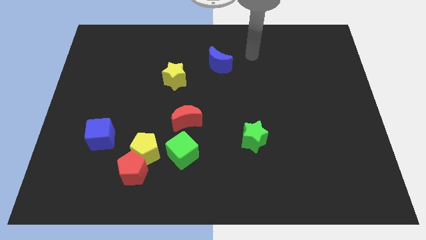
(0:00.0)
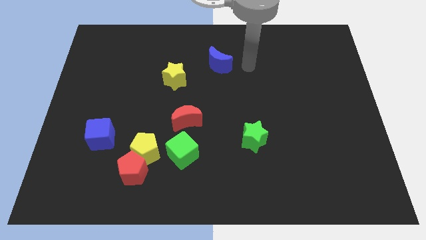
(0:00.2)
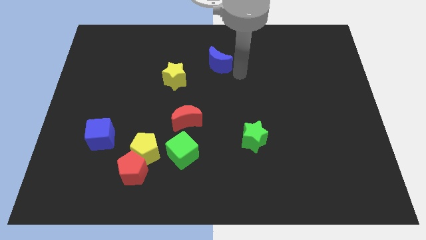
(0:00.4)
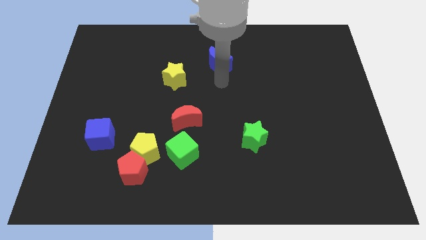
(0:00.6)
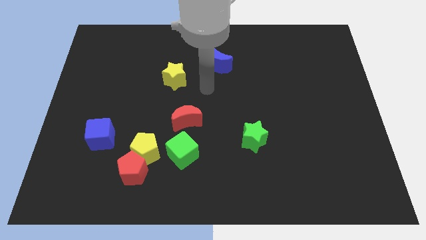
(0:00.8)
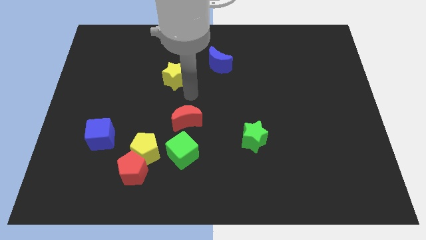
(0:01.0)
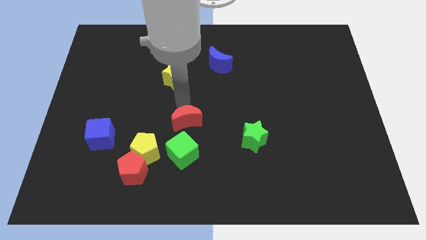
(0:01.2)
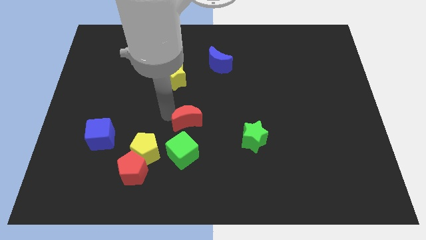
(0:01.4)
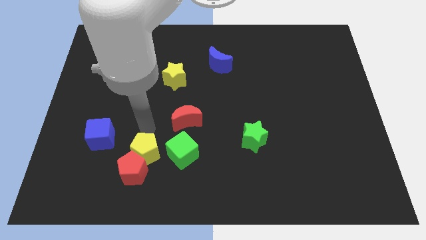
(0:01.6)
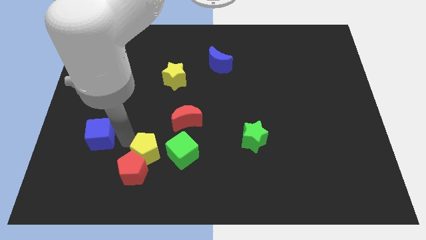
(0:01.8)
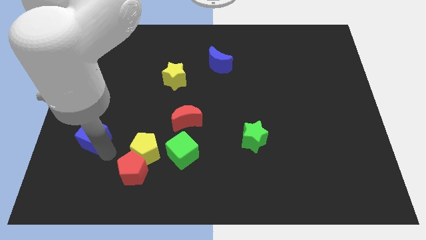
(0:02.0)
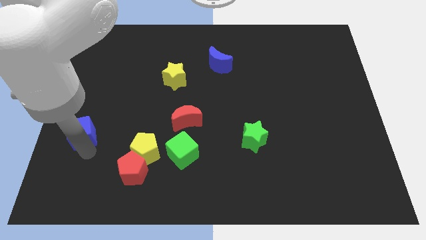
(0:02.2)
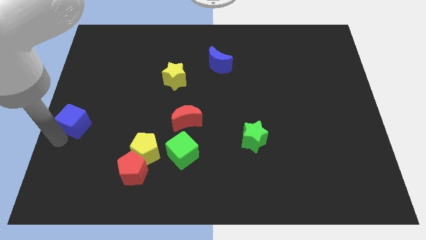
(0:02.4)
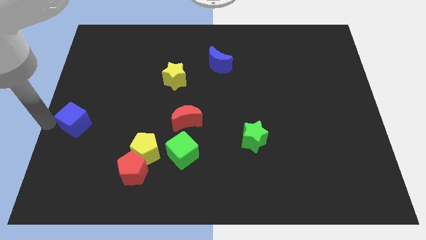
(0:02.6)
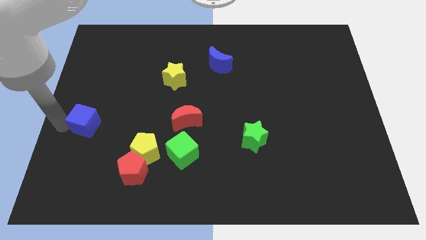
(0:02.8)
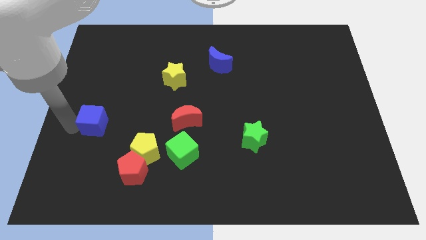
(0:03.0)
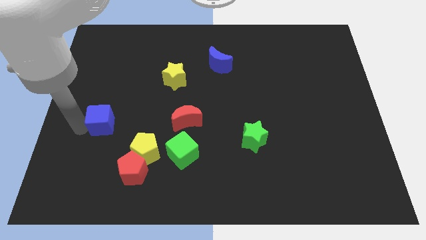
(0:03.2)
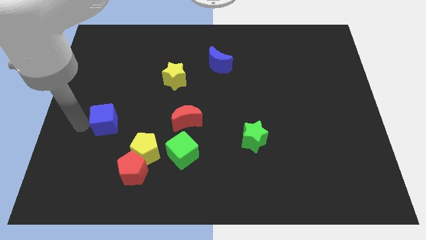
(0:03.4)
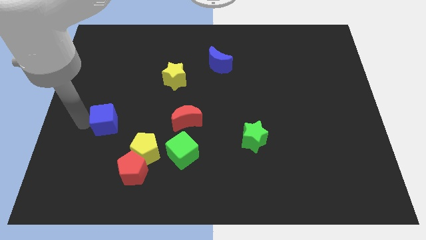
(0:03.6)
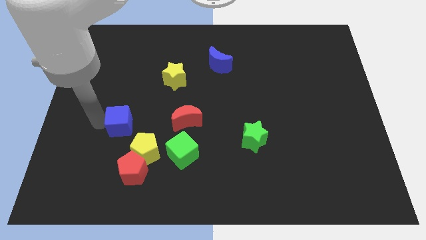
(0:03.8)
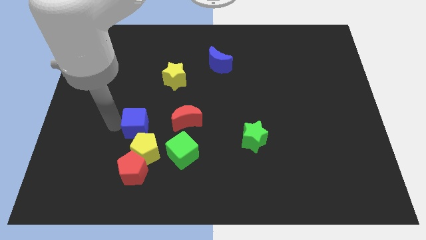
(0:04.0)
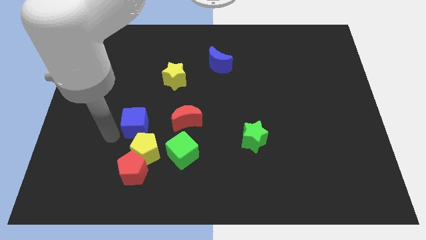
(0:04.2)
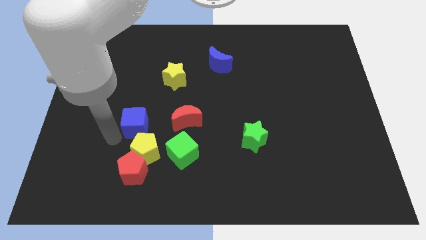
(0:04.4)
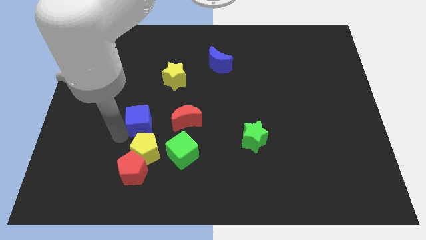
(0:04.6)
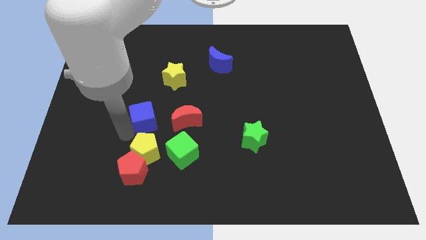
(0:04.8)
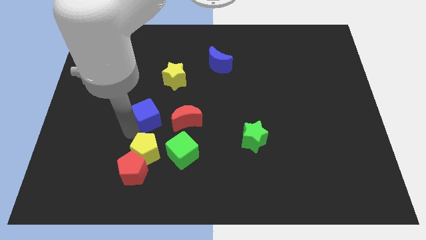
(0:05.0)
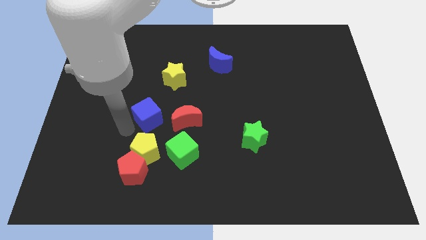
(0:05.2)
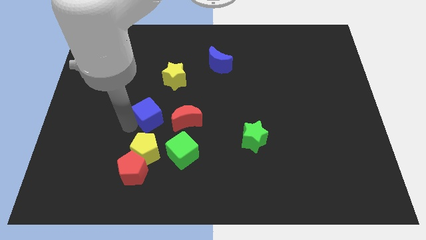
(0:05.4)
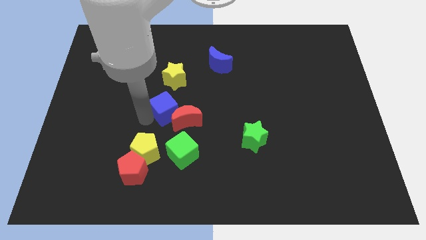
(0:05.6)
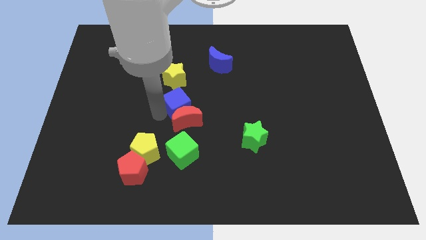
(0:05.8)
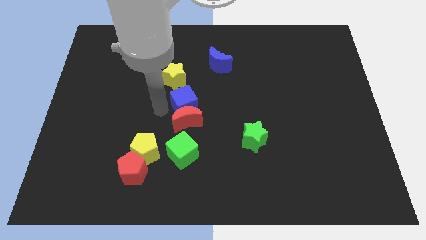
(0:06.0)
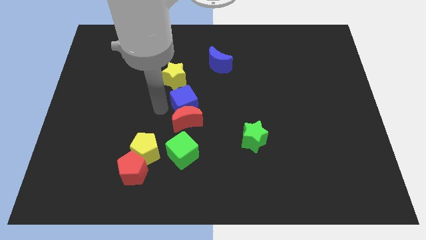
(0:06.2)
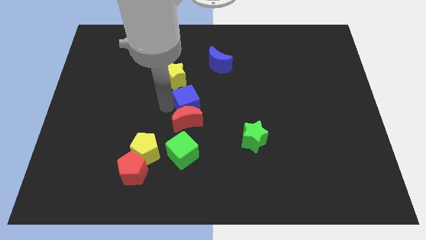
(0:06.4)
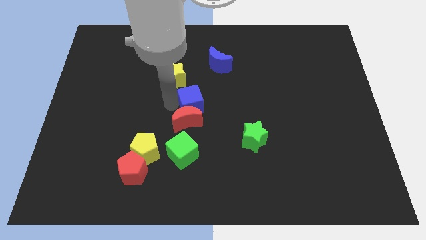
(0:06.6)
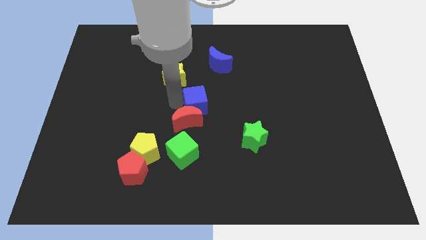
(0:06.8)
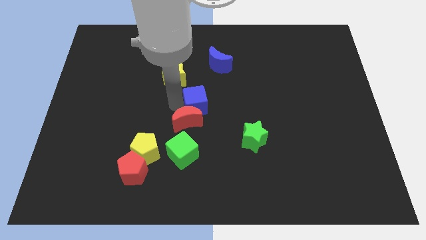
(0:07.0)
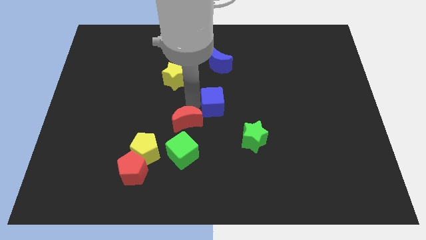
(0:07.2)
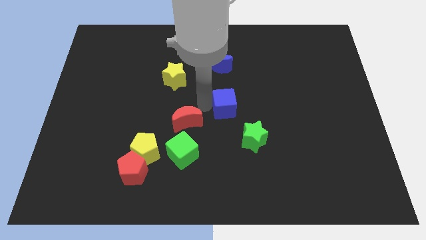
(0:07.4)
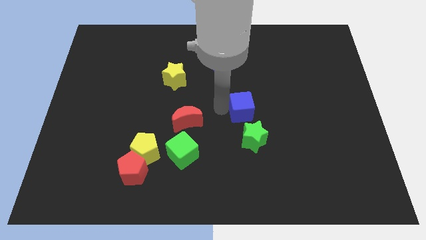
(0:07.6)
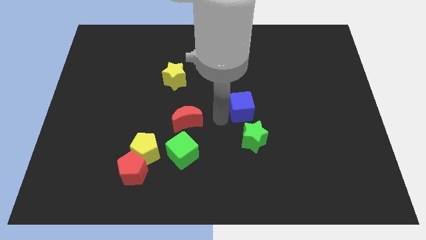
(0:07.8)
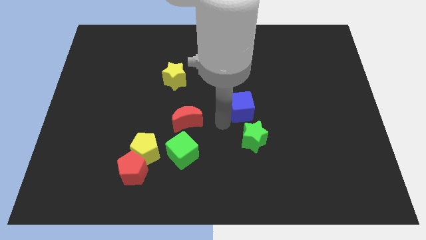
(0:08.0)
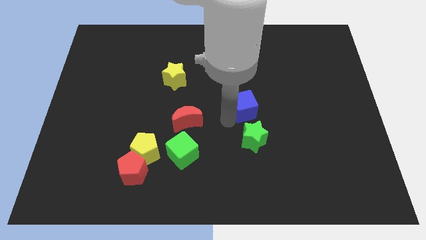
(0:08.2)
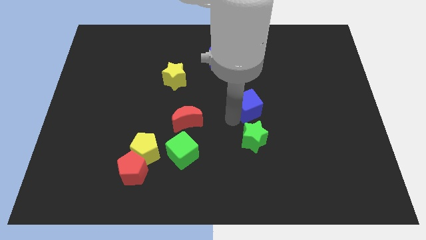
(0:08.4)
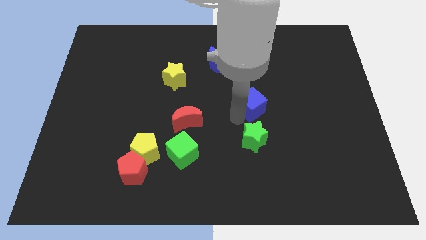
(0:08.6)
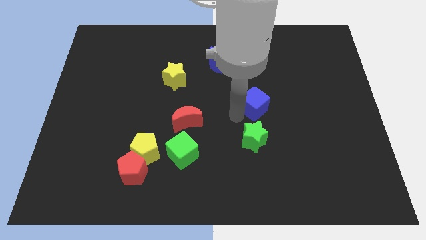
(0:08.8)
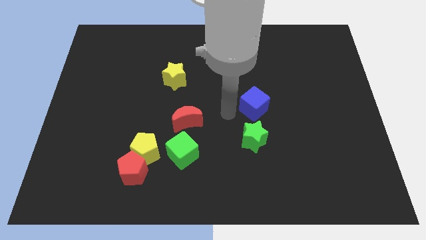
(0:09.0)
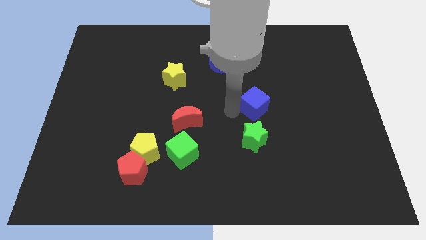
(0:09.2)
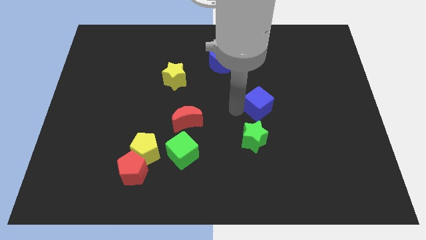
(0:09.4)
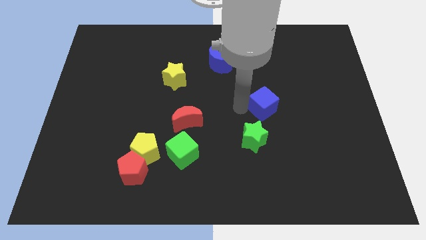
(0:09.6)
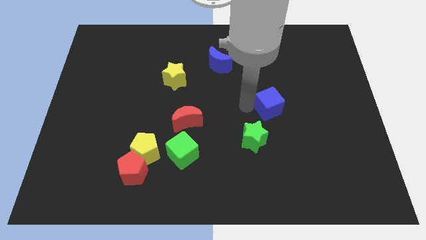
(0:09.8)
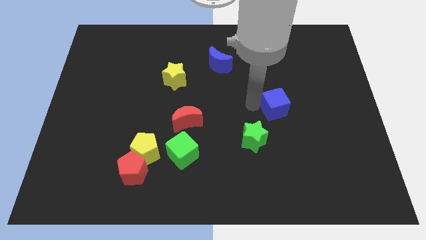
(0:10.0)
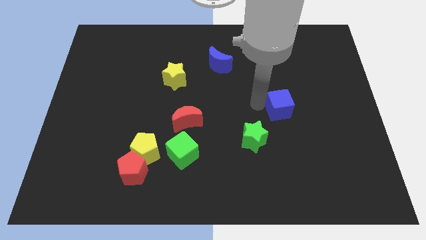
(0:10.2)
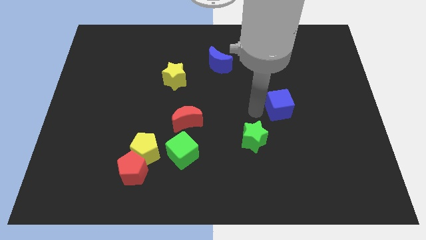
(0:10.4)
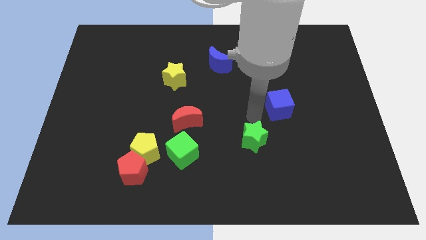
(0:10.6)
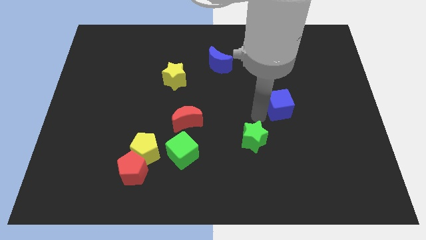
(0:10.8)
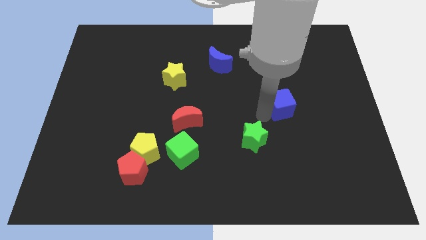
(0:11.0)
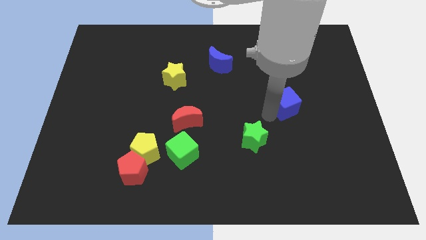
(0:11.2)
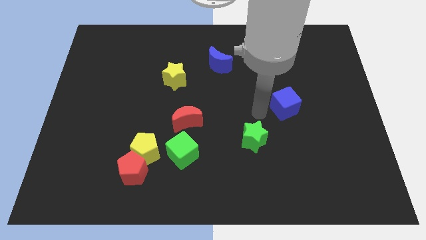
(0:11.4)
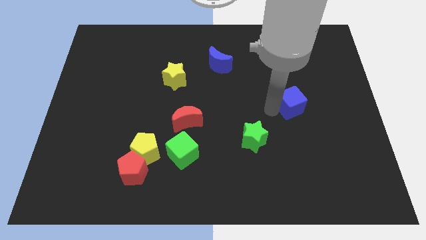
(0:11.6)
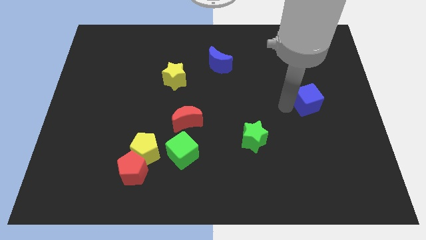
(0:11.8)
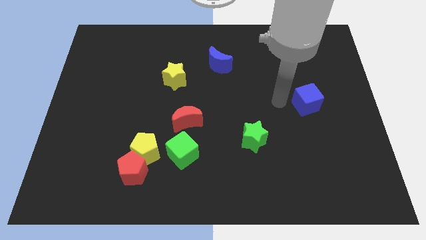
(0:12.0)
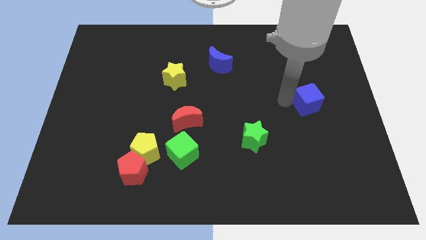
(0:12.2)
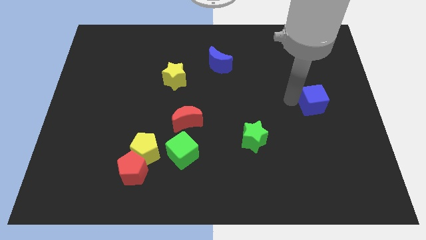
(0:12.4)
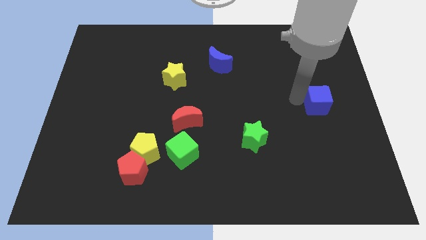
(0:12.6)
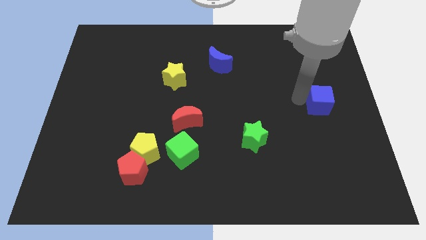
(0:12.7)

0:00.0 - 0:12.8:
push the blue cube to the center right
